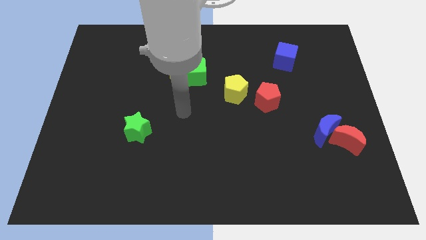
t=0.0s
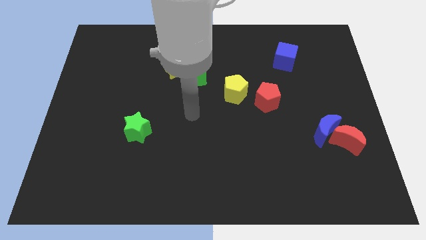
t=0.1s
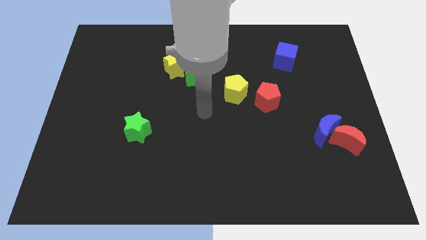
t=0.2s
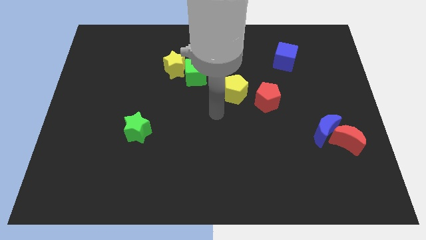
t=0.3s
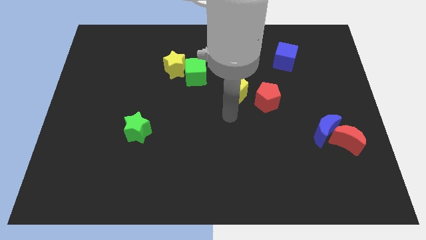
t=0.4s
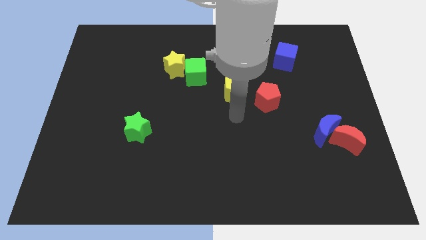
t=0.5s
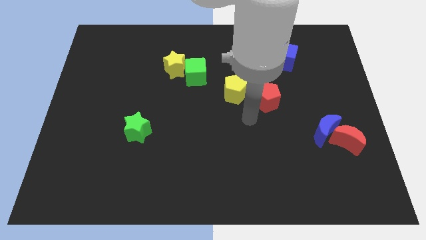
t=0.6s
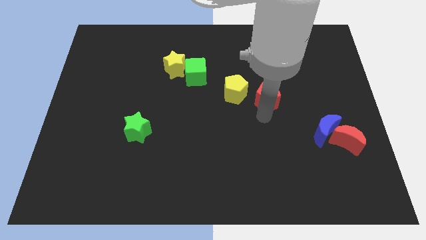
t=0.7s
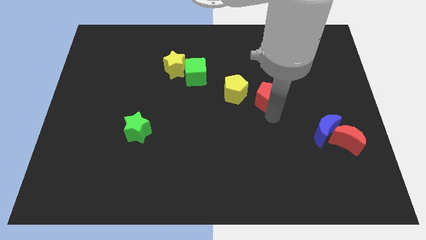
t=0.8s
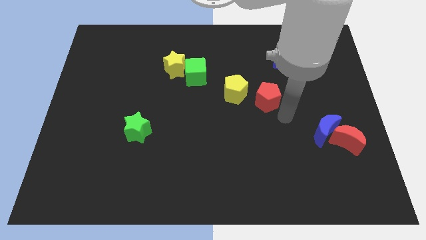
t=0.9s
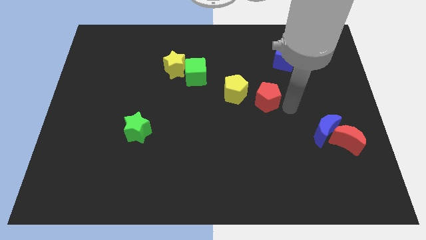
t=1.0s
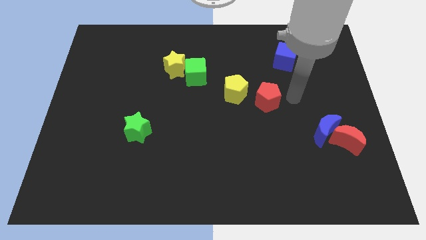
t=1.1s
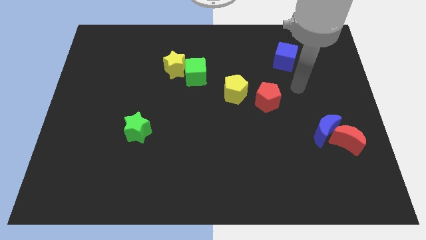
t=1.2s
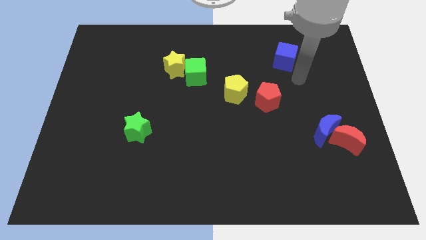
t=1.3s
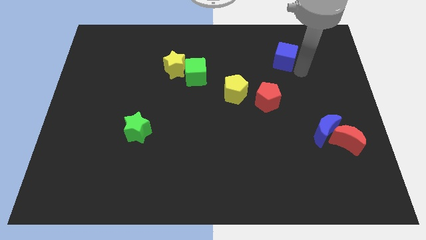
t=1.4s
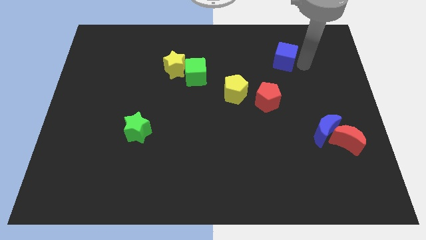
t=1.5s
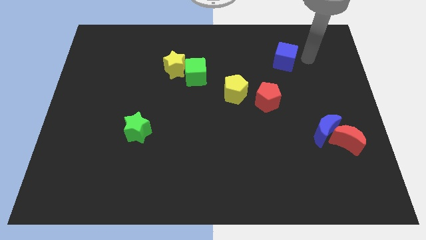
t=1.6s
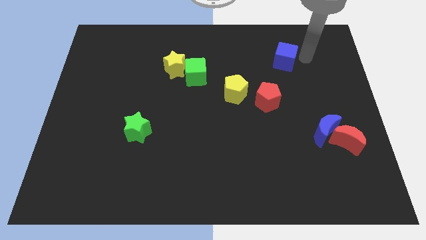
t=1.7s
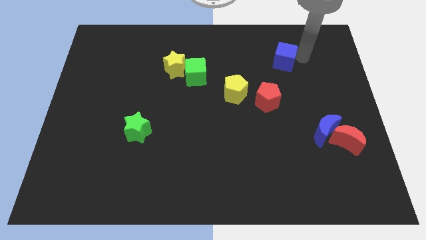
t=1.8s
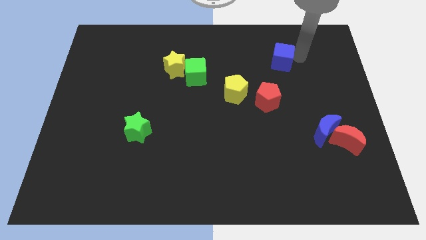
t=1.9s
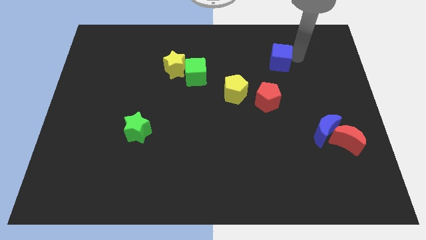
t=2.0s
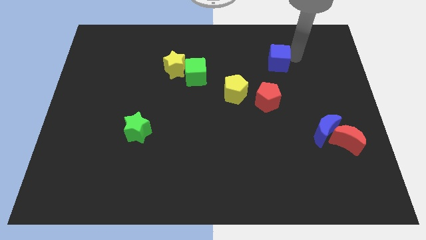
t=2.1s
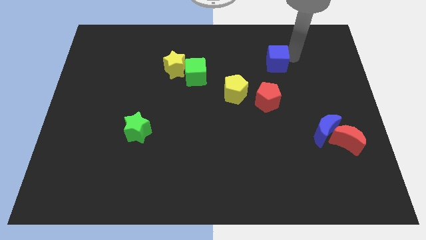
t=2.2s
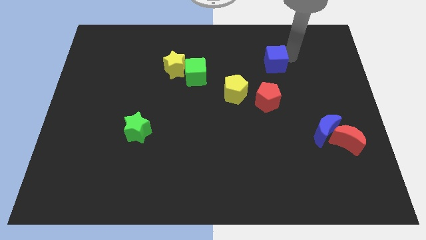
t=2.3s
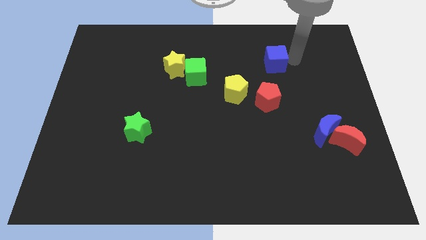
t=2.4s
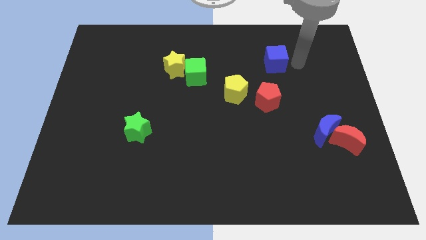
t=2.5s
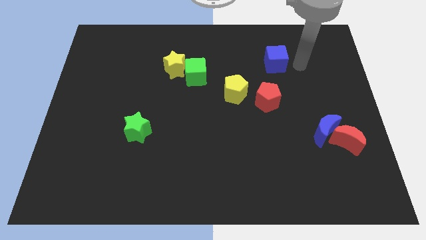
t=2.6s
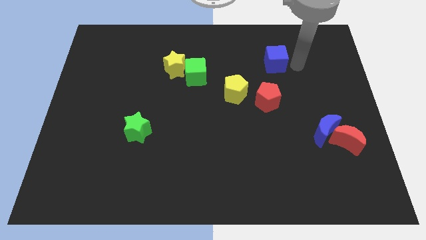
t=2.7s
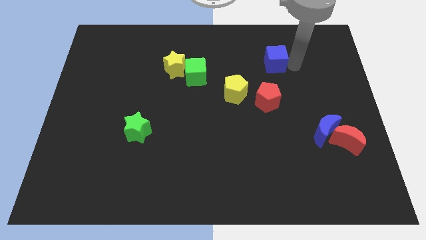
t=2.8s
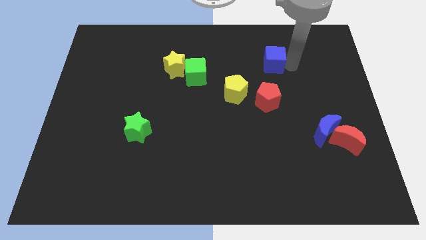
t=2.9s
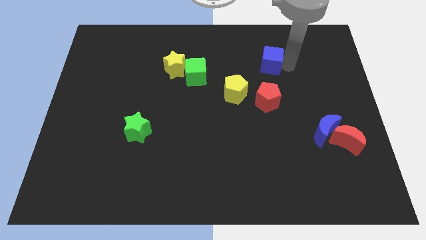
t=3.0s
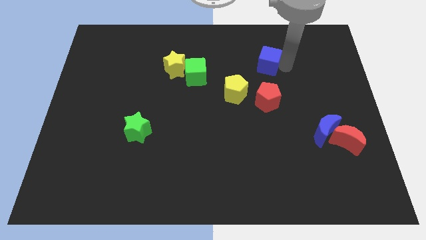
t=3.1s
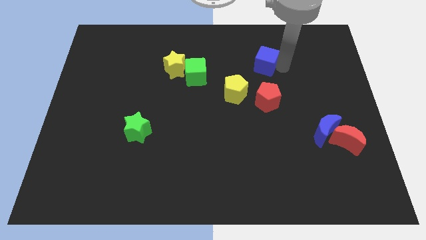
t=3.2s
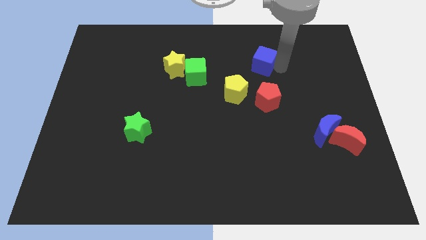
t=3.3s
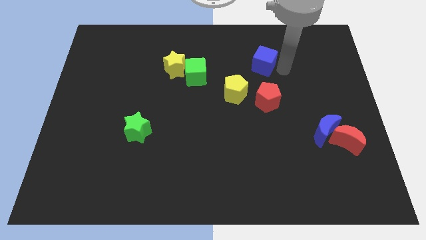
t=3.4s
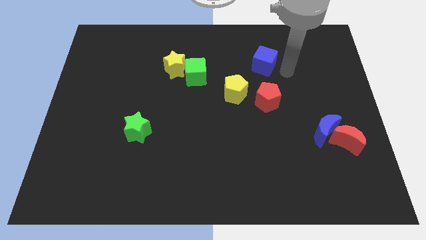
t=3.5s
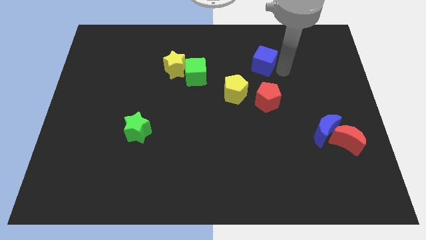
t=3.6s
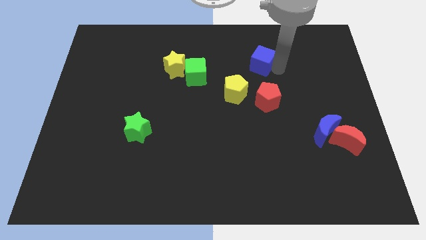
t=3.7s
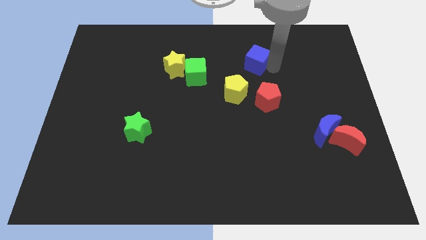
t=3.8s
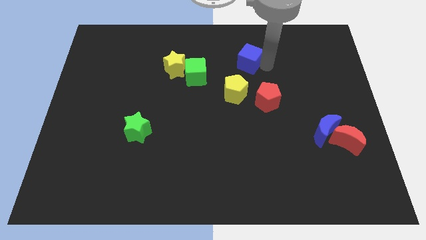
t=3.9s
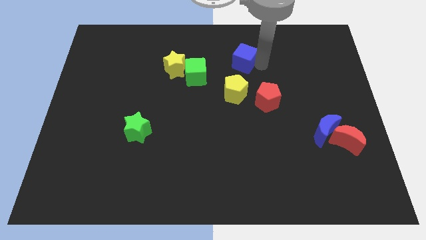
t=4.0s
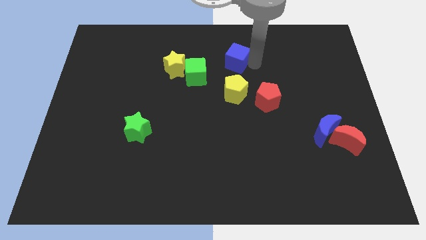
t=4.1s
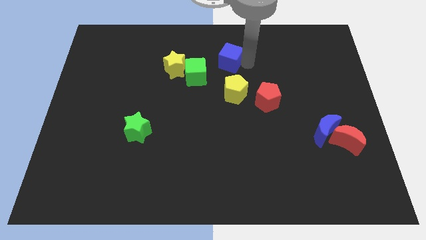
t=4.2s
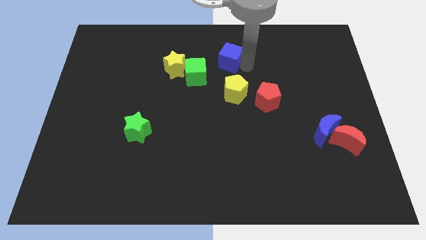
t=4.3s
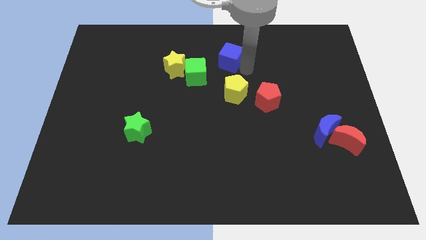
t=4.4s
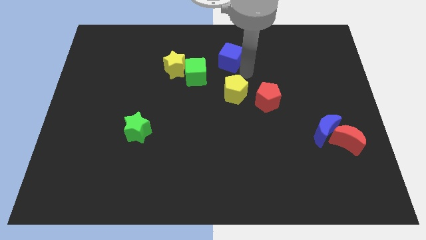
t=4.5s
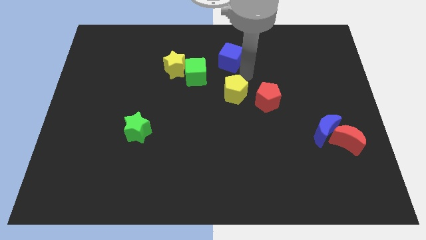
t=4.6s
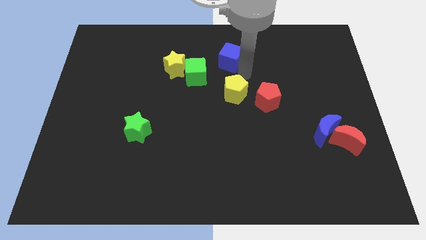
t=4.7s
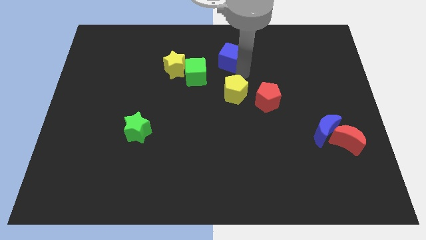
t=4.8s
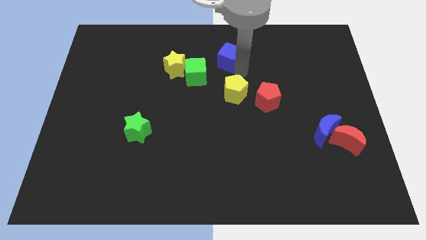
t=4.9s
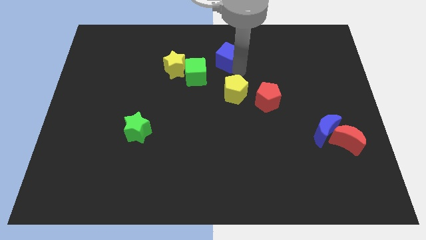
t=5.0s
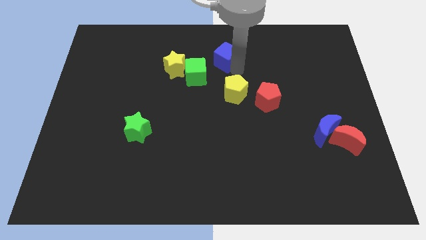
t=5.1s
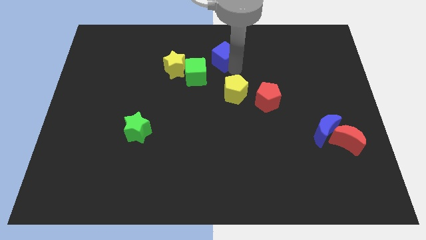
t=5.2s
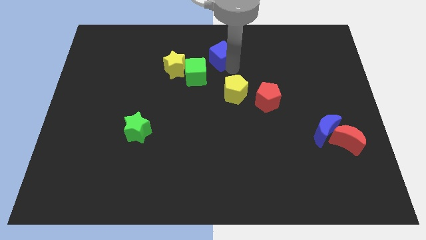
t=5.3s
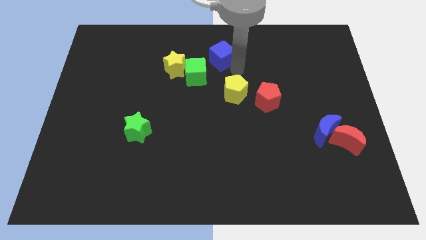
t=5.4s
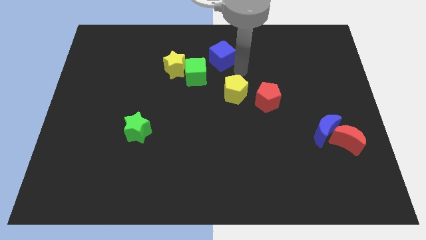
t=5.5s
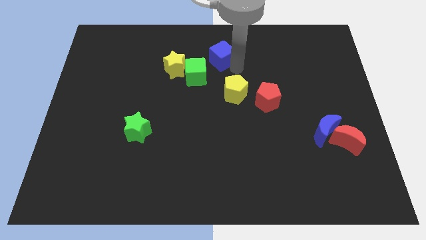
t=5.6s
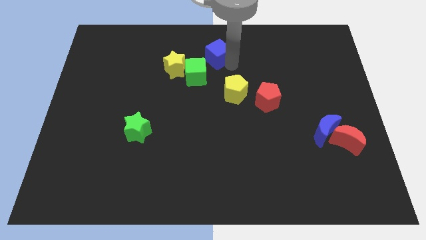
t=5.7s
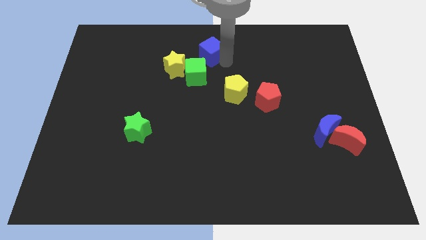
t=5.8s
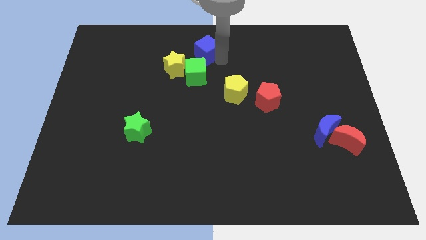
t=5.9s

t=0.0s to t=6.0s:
slide the blue cube to the left

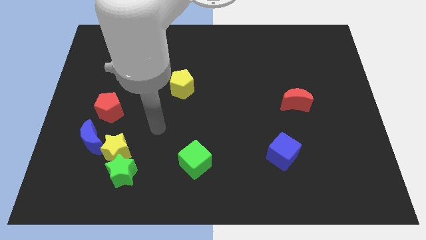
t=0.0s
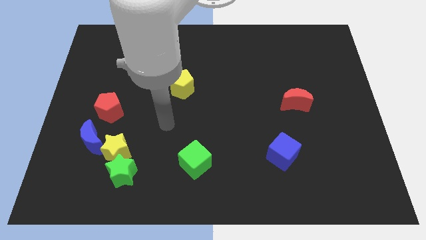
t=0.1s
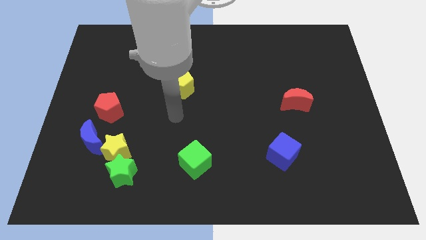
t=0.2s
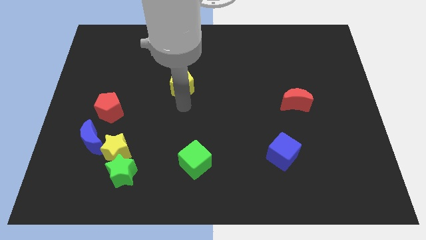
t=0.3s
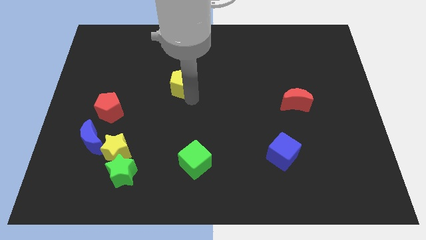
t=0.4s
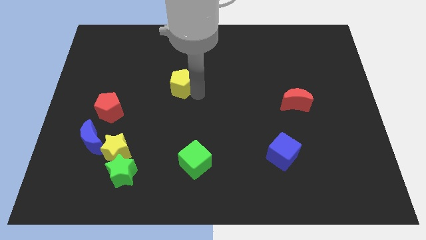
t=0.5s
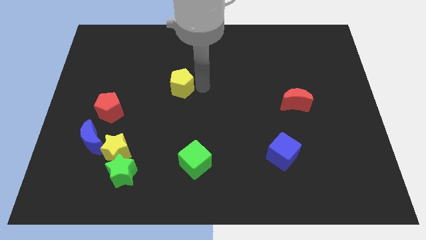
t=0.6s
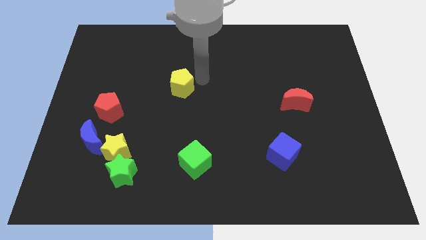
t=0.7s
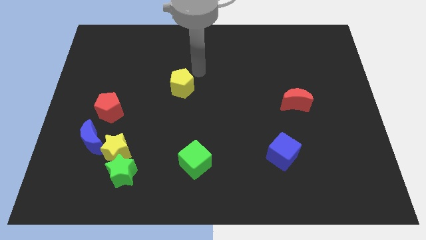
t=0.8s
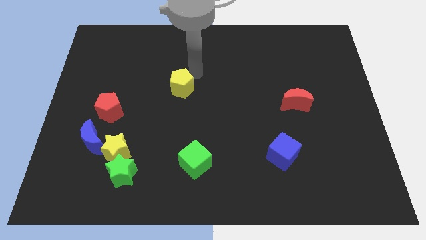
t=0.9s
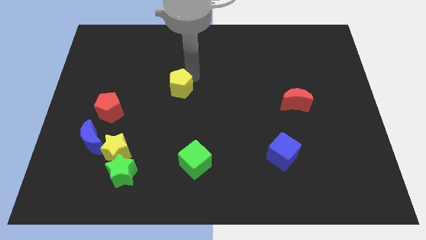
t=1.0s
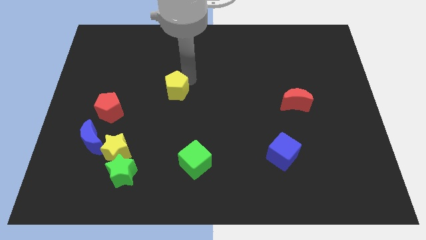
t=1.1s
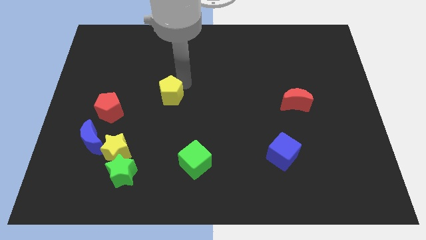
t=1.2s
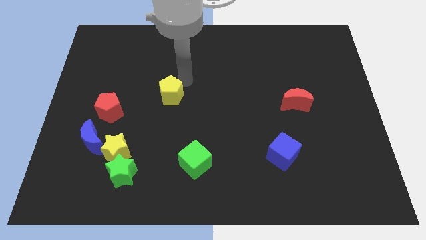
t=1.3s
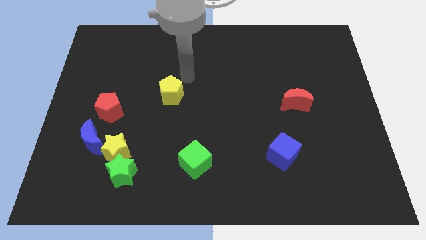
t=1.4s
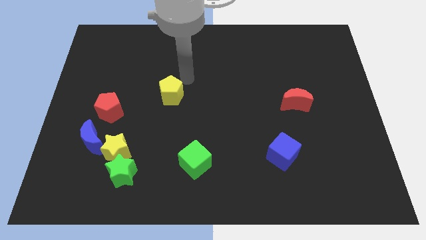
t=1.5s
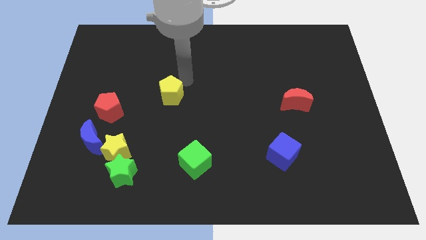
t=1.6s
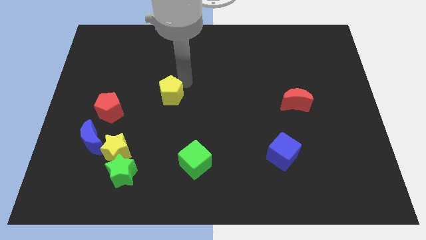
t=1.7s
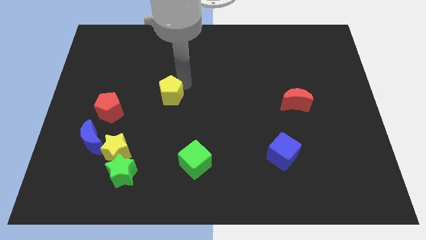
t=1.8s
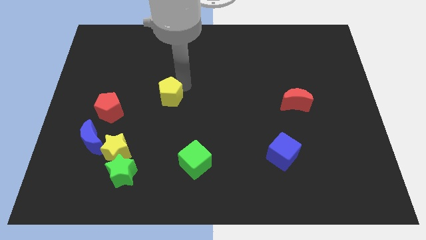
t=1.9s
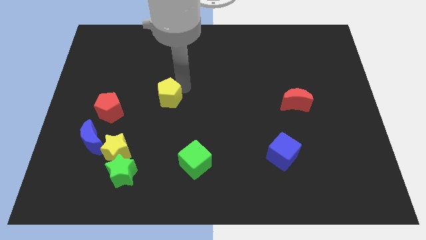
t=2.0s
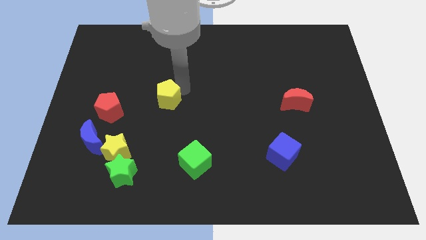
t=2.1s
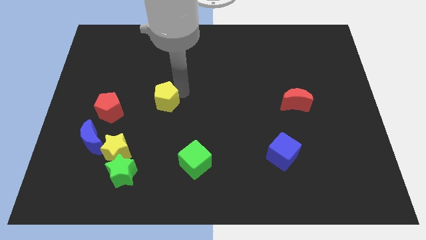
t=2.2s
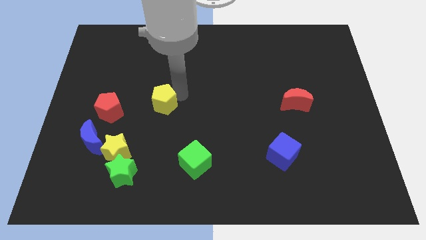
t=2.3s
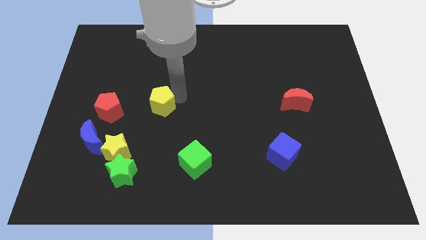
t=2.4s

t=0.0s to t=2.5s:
slightly move the yellow pentagon down and left diagonally
